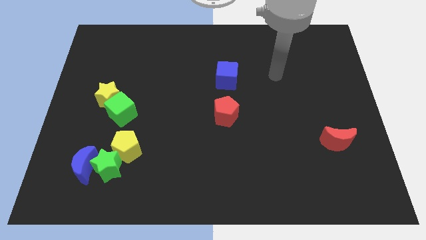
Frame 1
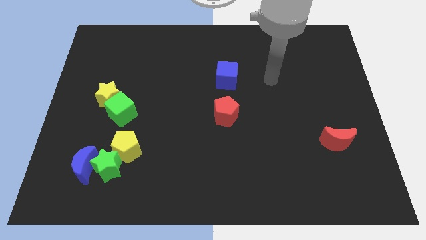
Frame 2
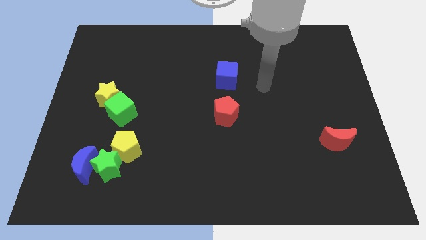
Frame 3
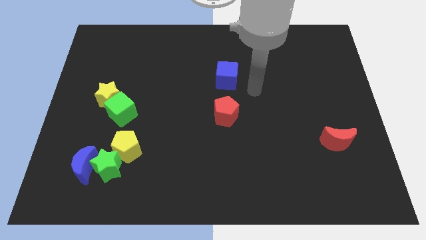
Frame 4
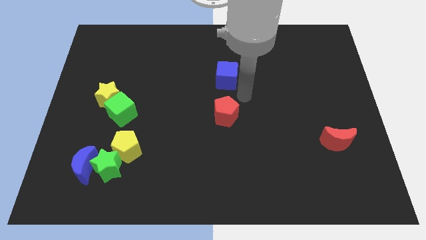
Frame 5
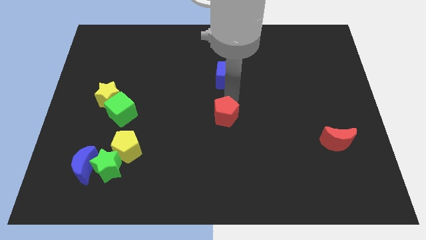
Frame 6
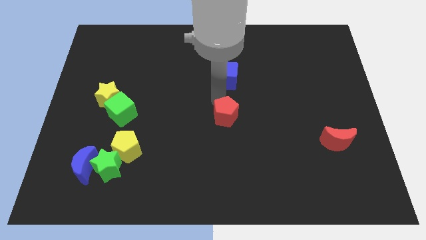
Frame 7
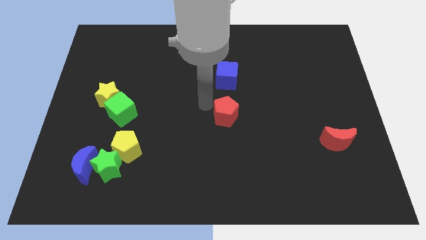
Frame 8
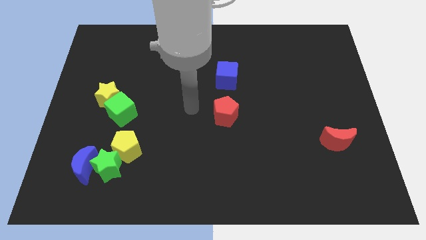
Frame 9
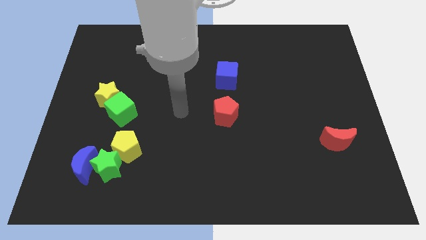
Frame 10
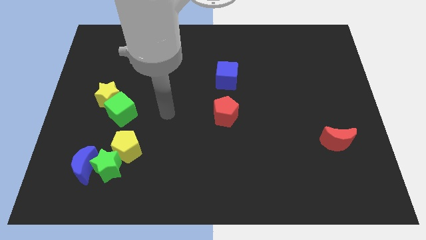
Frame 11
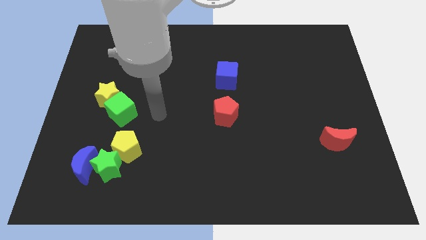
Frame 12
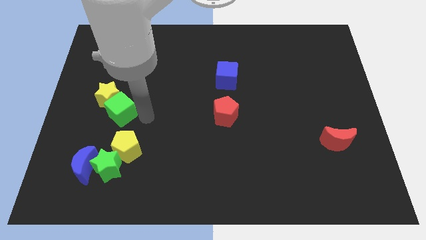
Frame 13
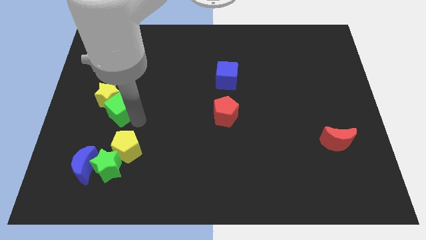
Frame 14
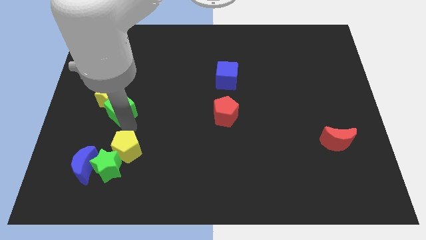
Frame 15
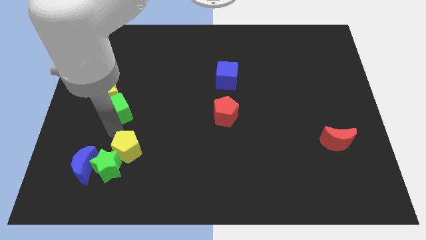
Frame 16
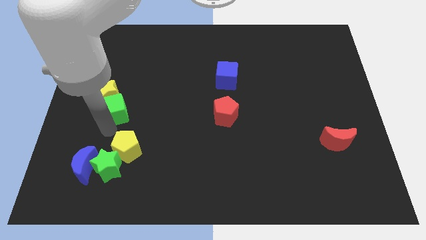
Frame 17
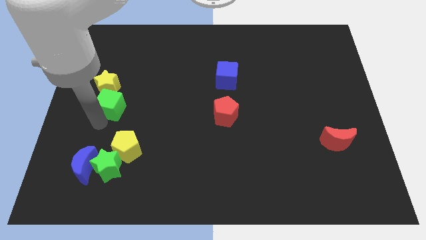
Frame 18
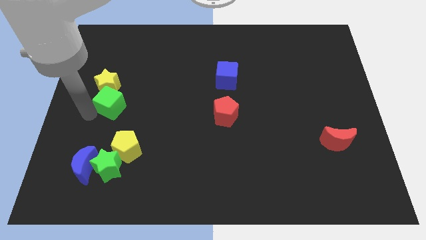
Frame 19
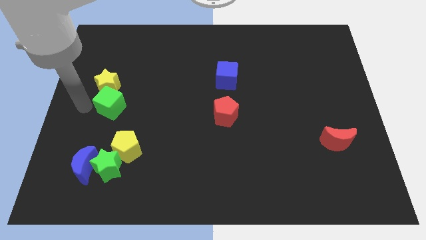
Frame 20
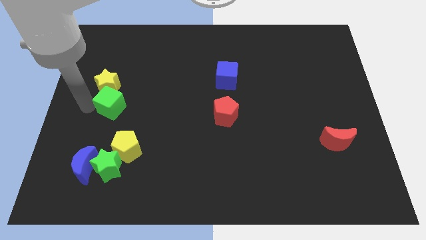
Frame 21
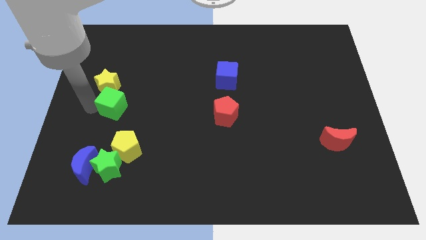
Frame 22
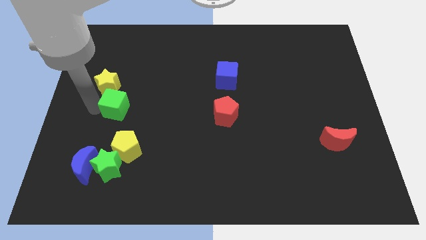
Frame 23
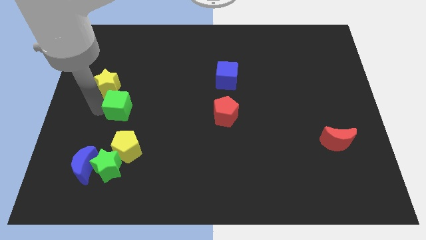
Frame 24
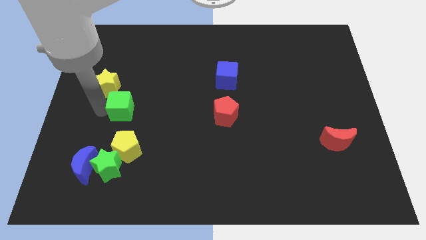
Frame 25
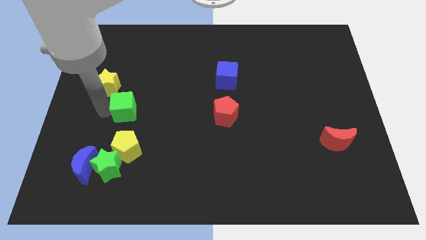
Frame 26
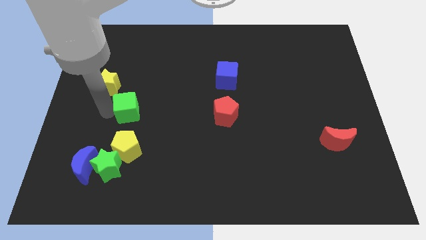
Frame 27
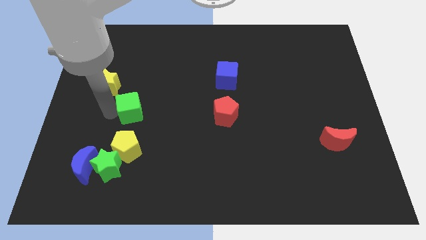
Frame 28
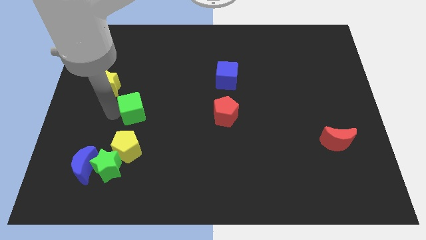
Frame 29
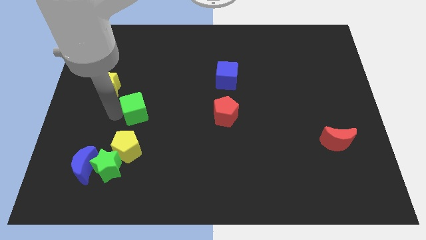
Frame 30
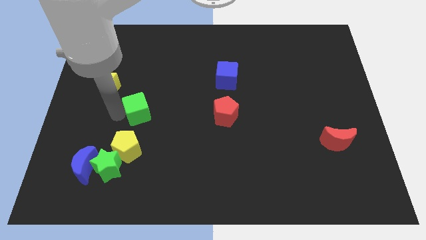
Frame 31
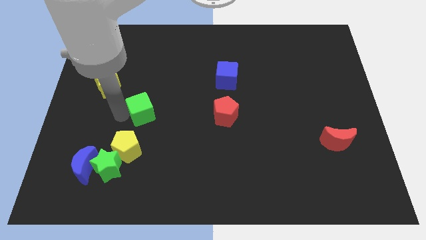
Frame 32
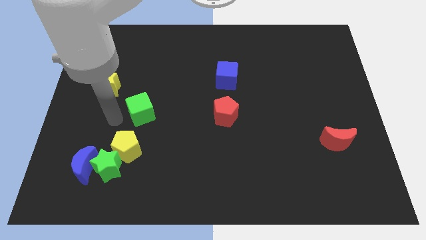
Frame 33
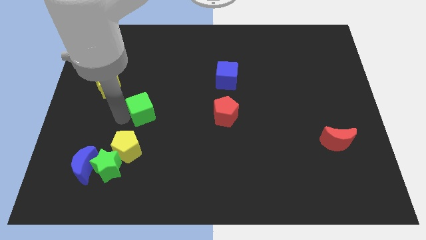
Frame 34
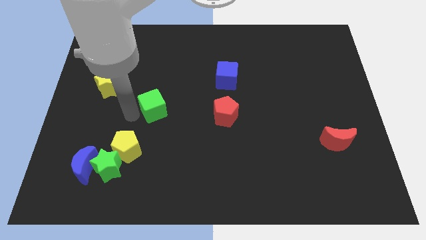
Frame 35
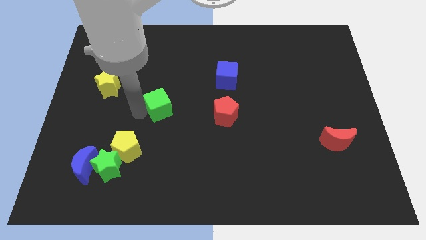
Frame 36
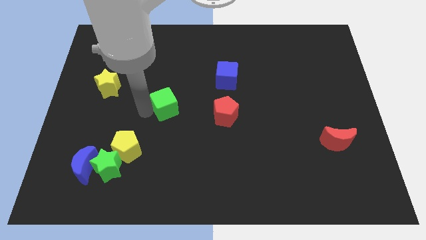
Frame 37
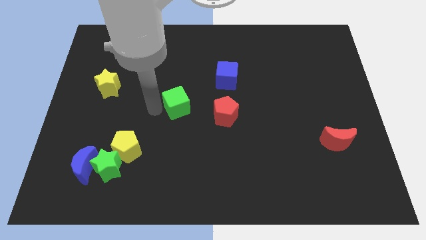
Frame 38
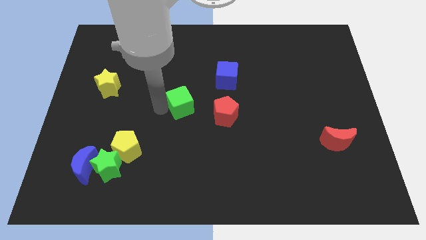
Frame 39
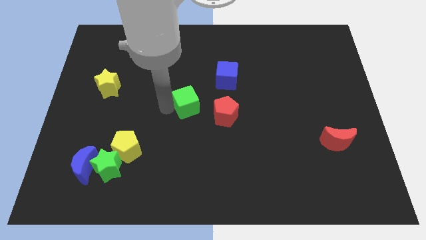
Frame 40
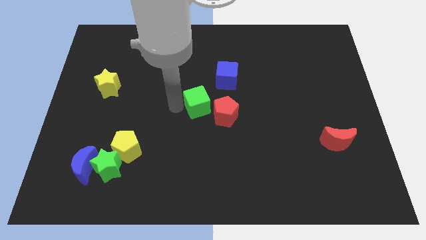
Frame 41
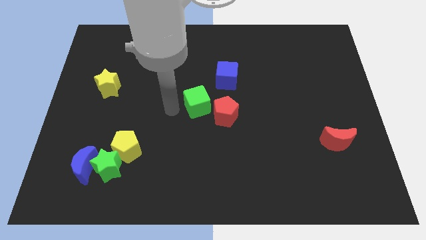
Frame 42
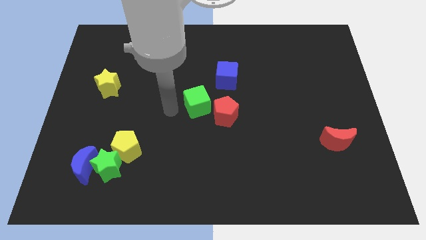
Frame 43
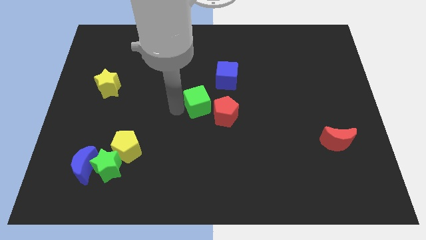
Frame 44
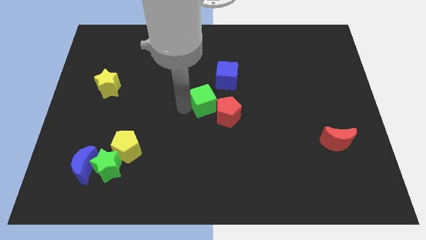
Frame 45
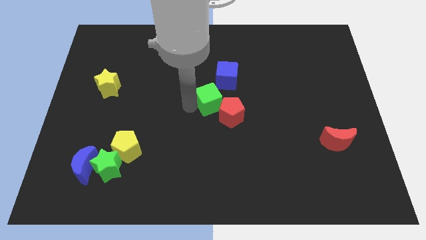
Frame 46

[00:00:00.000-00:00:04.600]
move the green cube to the right

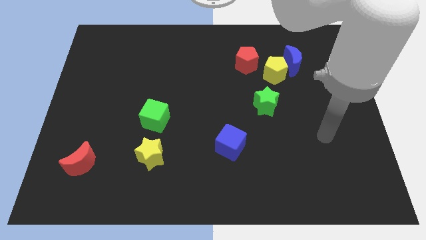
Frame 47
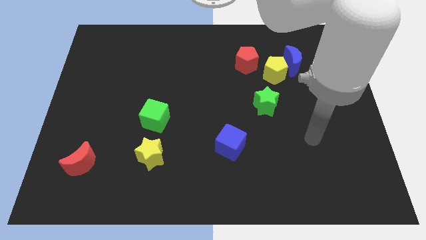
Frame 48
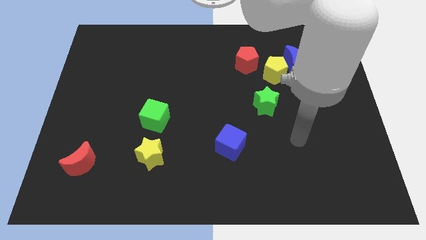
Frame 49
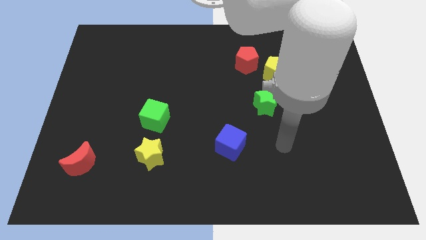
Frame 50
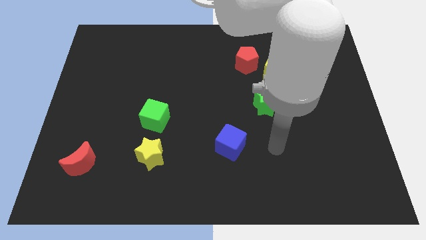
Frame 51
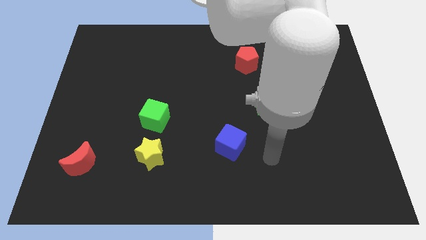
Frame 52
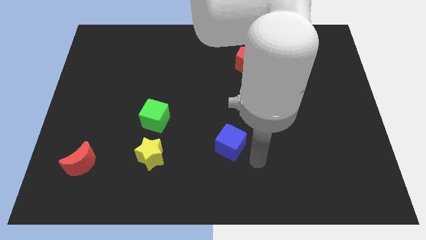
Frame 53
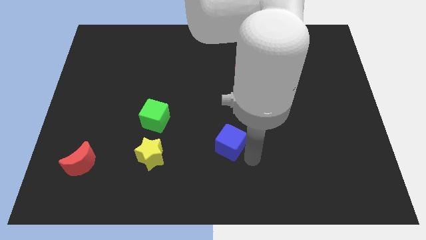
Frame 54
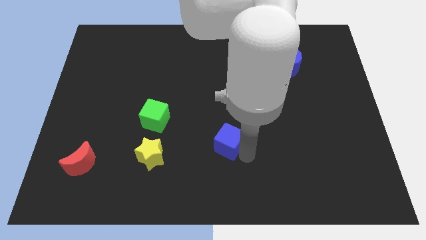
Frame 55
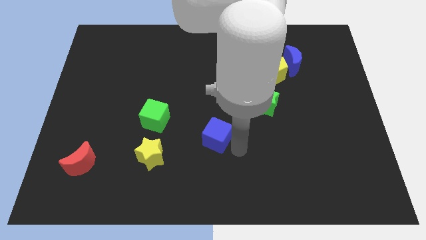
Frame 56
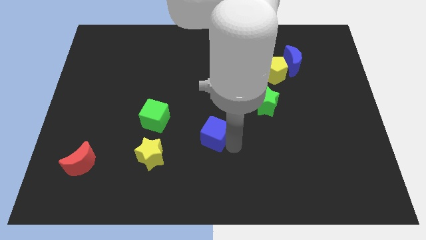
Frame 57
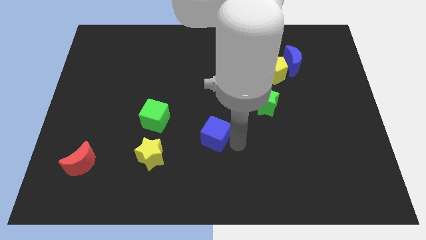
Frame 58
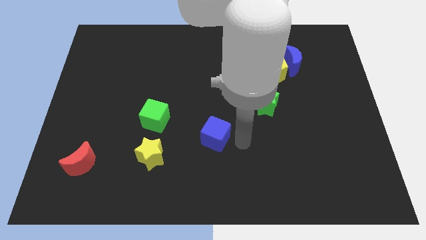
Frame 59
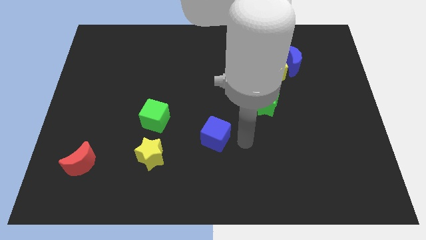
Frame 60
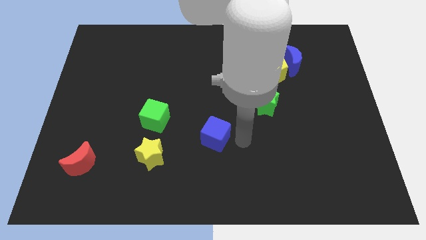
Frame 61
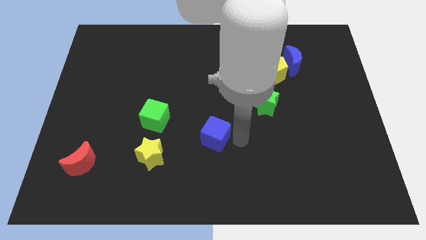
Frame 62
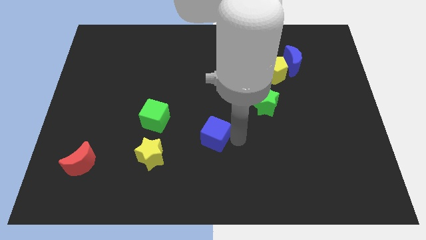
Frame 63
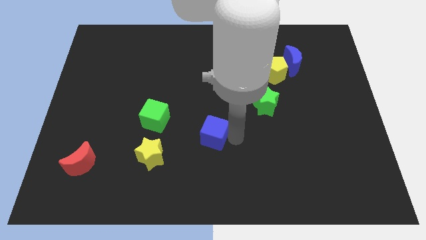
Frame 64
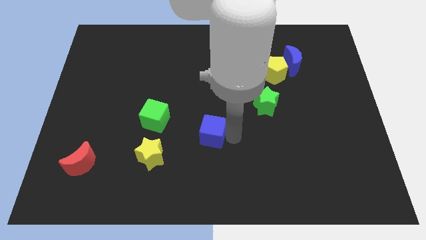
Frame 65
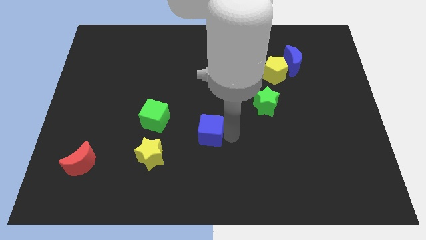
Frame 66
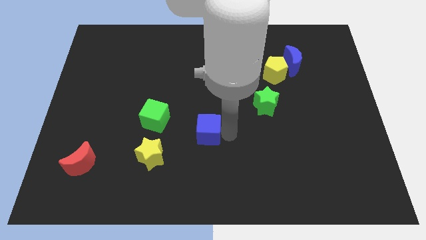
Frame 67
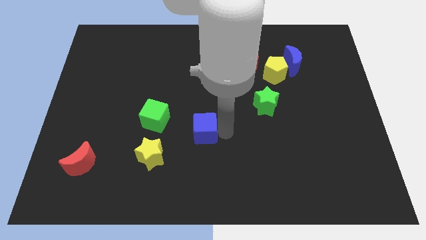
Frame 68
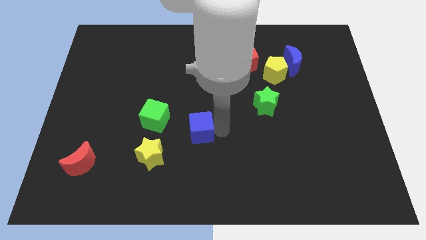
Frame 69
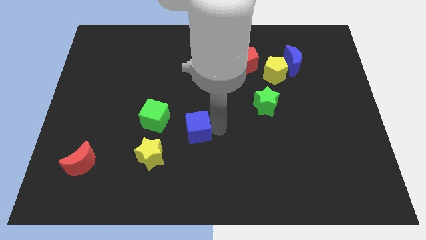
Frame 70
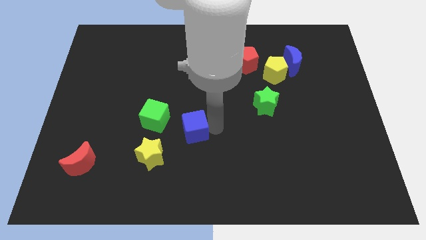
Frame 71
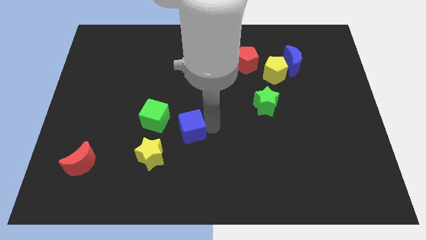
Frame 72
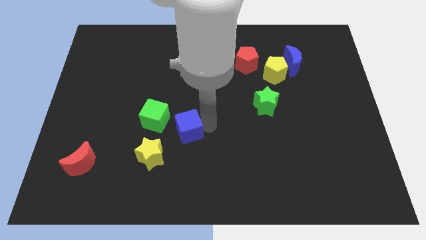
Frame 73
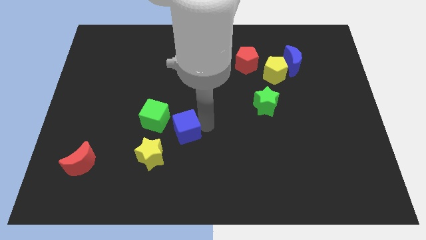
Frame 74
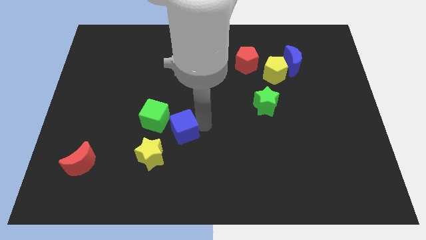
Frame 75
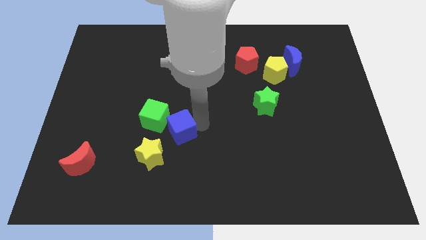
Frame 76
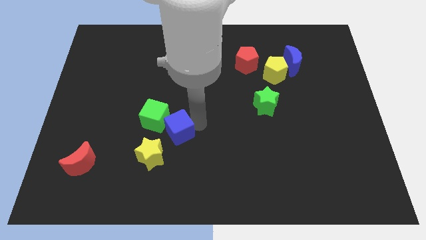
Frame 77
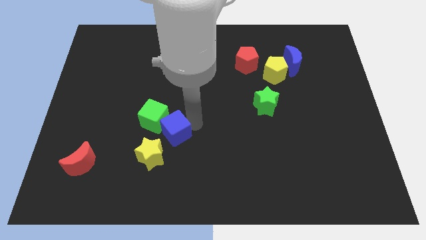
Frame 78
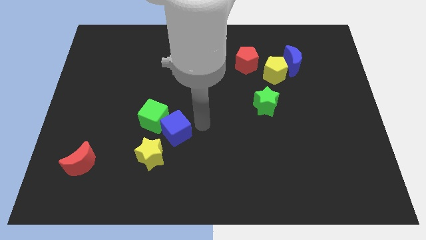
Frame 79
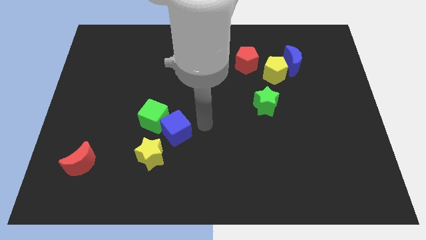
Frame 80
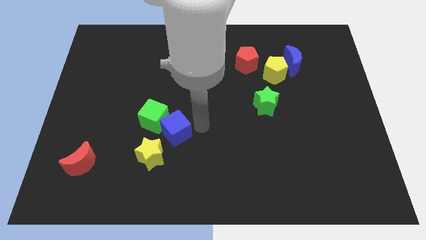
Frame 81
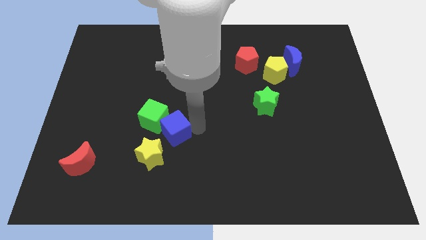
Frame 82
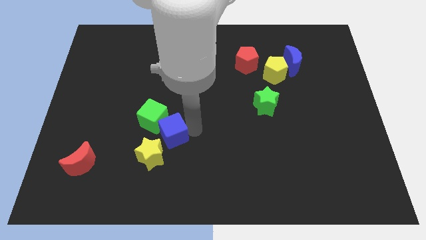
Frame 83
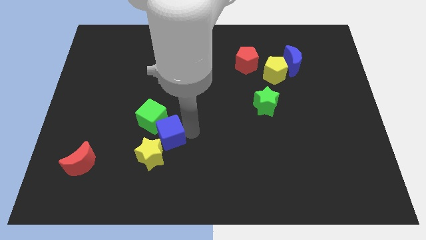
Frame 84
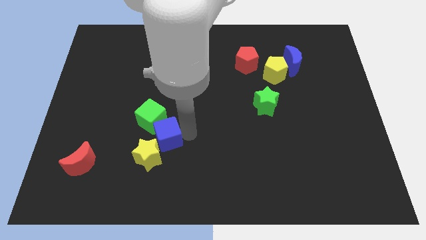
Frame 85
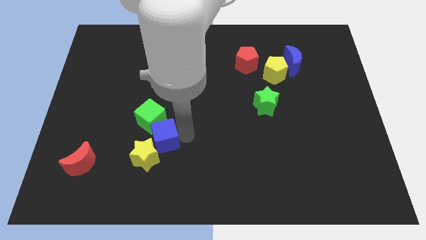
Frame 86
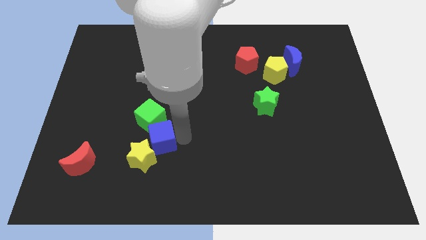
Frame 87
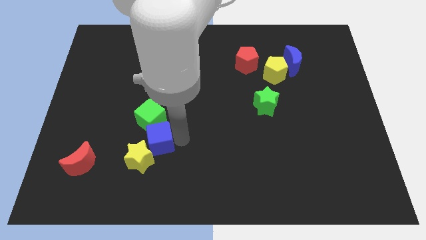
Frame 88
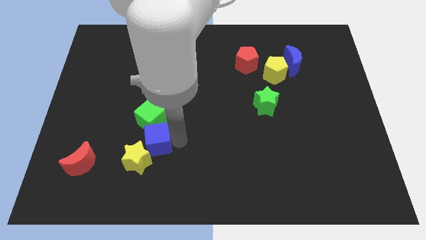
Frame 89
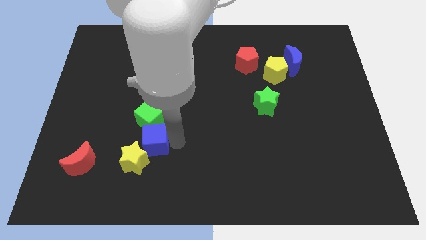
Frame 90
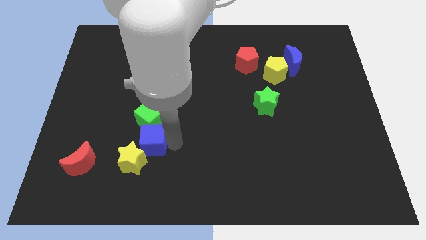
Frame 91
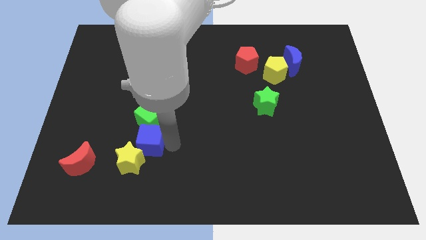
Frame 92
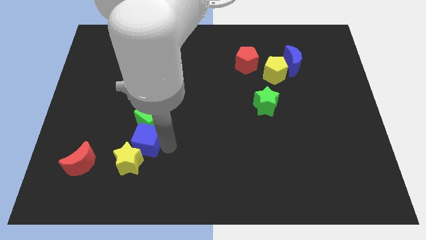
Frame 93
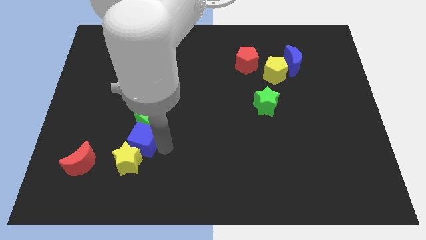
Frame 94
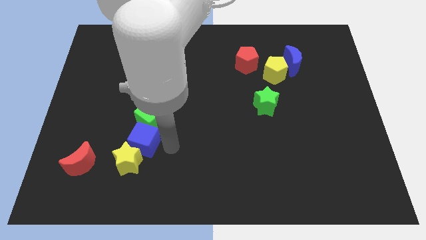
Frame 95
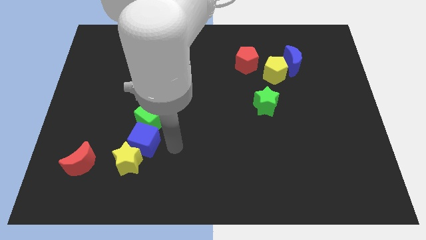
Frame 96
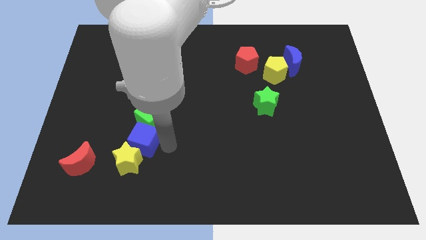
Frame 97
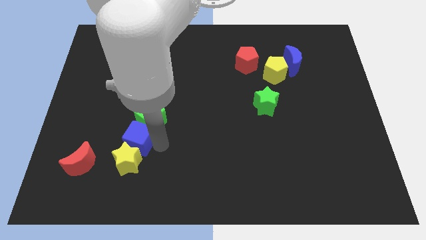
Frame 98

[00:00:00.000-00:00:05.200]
push the blue cube left
